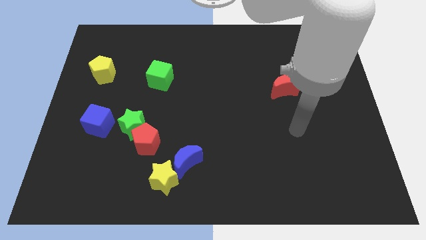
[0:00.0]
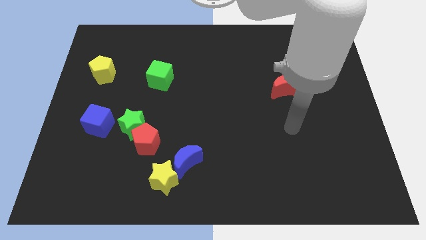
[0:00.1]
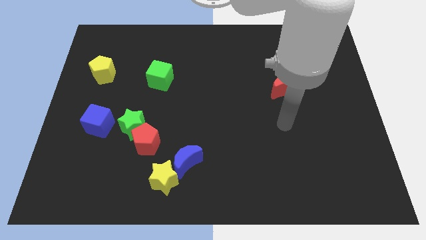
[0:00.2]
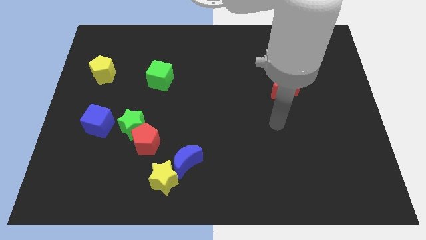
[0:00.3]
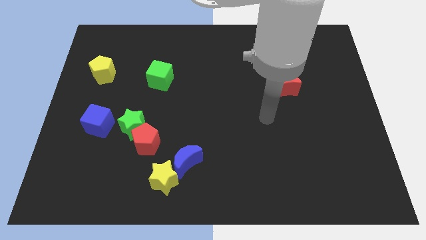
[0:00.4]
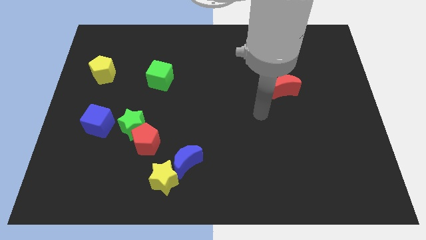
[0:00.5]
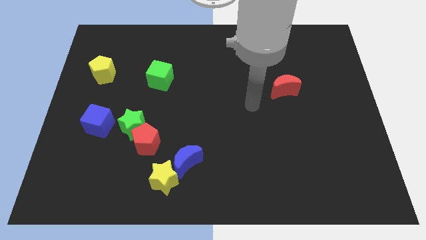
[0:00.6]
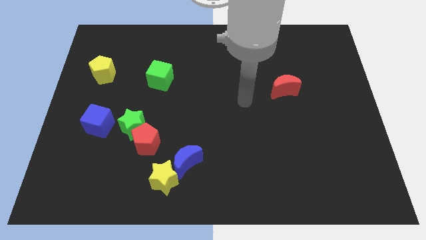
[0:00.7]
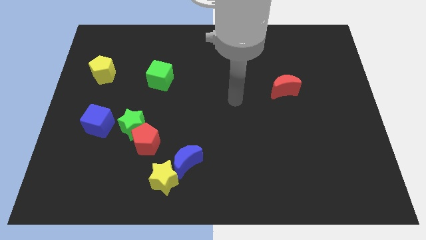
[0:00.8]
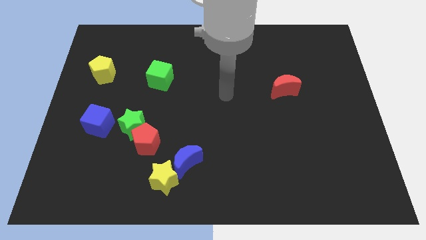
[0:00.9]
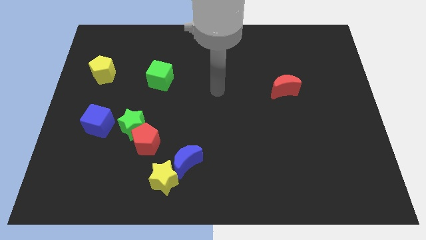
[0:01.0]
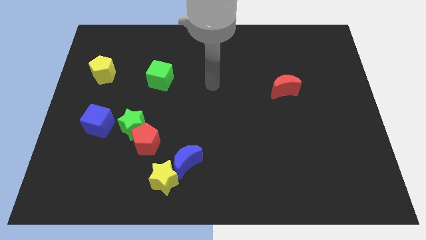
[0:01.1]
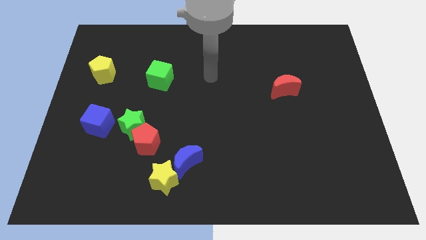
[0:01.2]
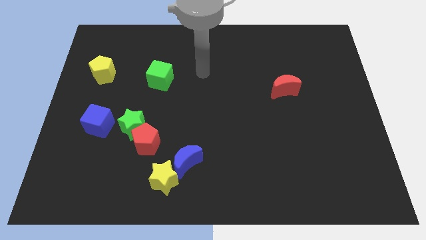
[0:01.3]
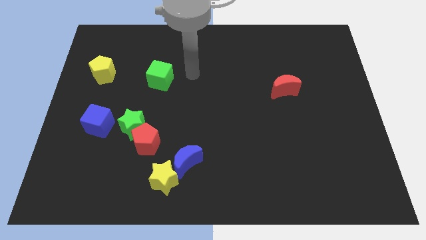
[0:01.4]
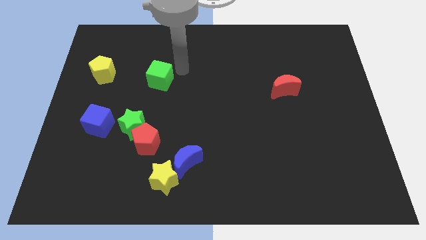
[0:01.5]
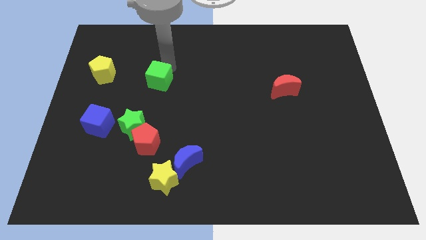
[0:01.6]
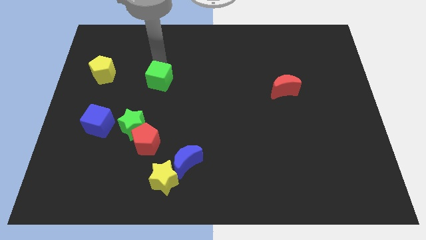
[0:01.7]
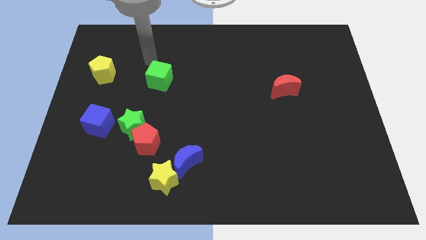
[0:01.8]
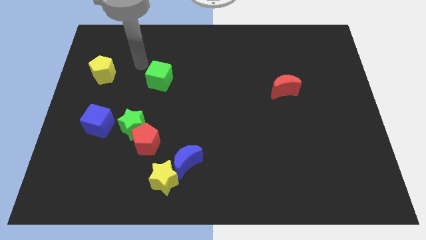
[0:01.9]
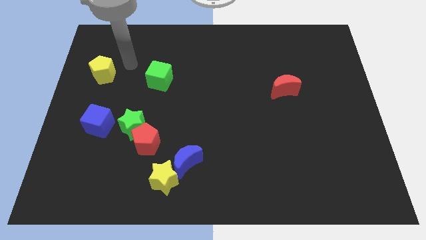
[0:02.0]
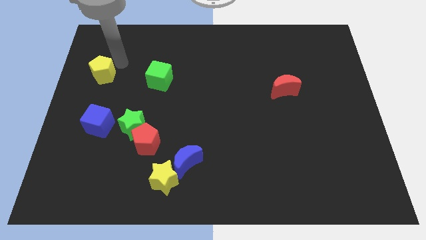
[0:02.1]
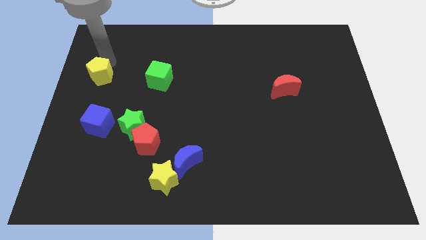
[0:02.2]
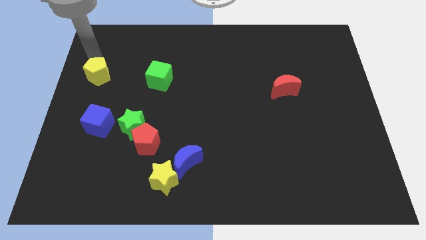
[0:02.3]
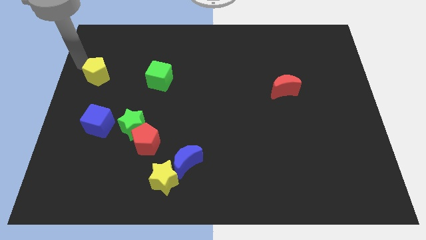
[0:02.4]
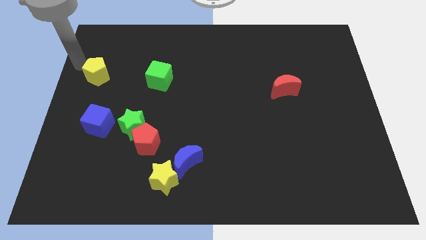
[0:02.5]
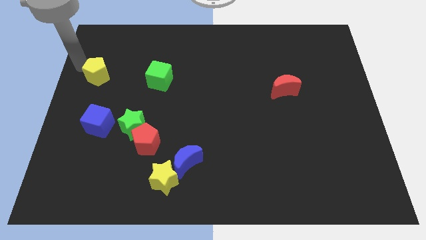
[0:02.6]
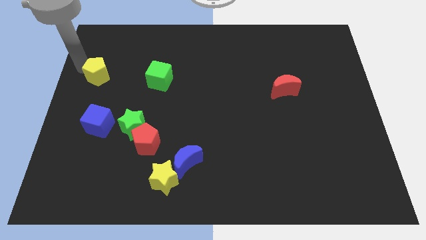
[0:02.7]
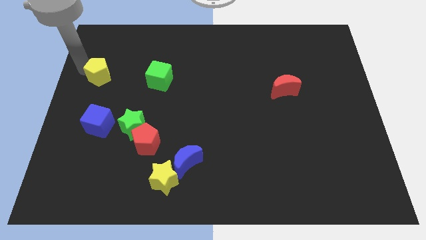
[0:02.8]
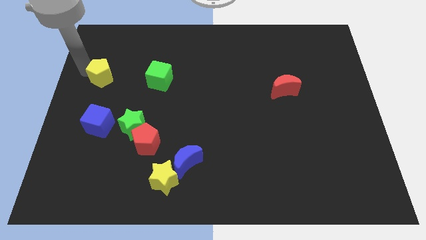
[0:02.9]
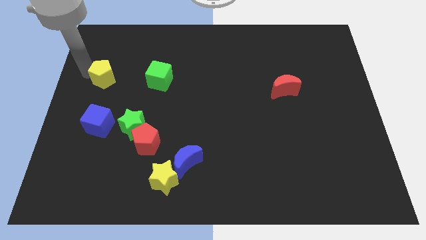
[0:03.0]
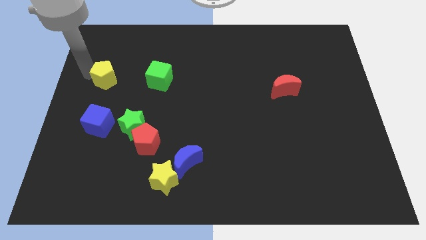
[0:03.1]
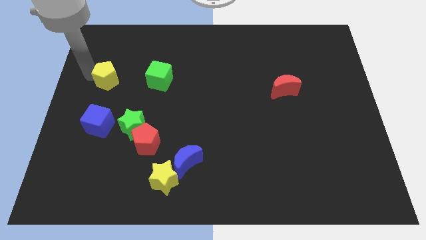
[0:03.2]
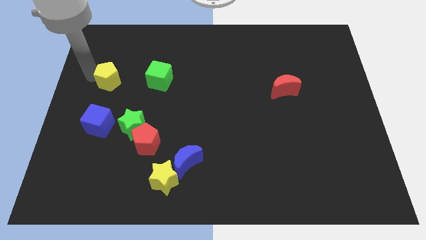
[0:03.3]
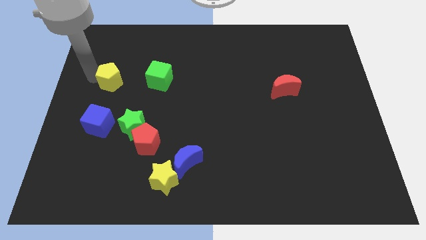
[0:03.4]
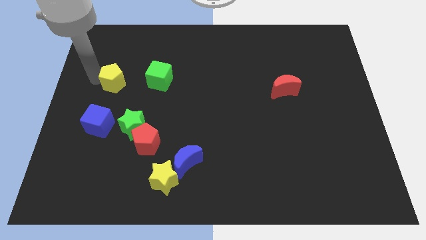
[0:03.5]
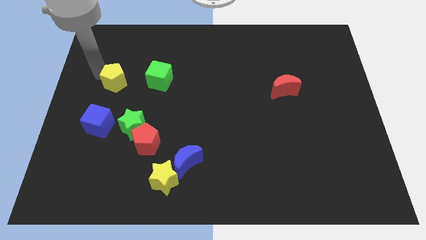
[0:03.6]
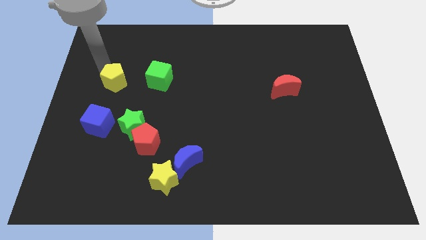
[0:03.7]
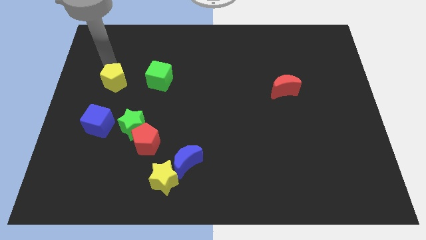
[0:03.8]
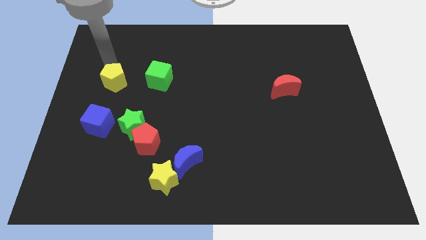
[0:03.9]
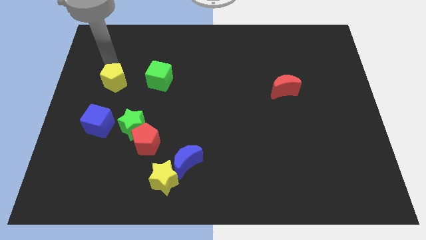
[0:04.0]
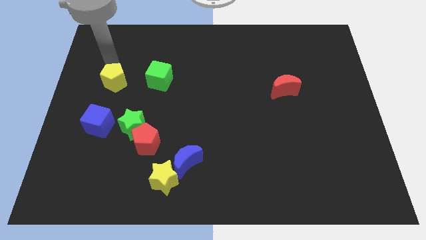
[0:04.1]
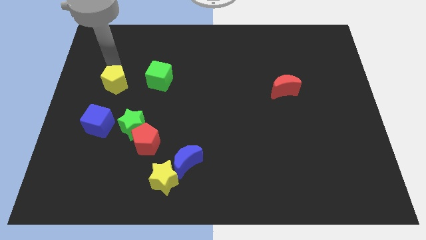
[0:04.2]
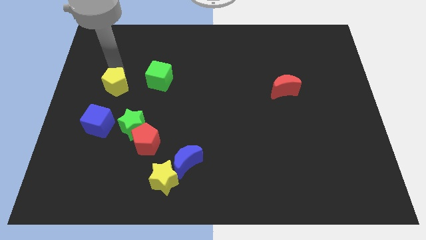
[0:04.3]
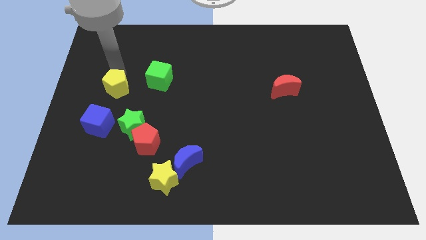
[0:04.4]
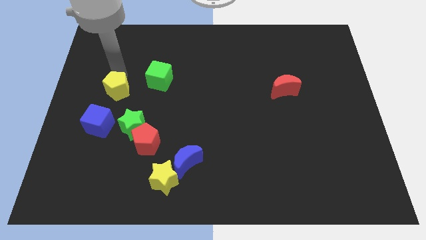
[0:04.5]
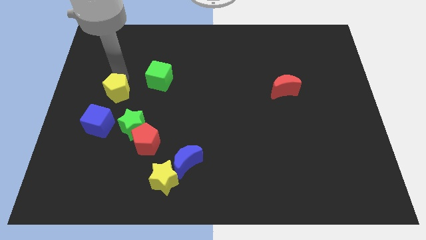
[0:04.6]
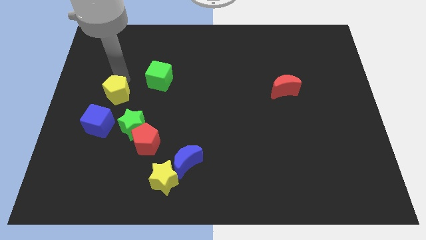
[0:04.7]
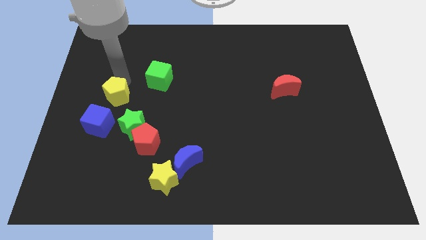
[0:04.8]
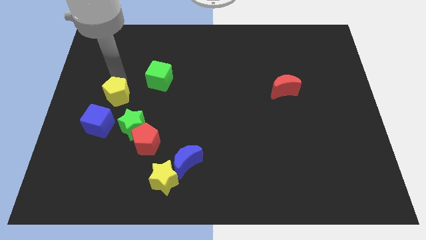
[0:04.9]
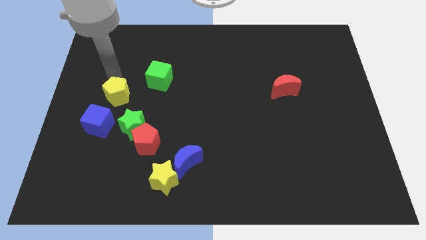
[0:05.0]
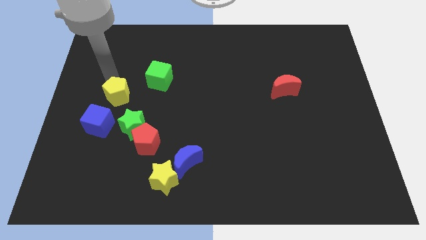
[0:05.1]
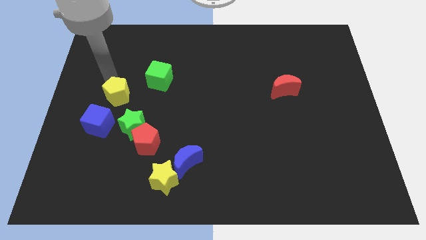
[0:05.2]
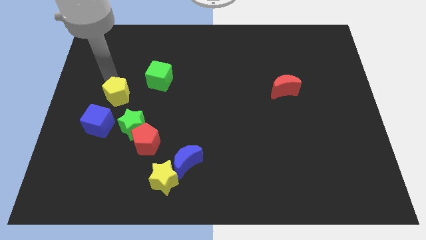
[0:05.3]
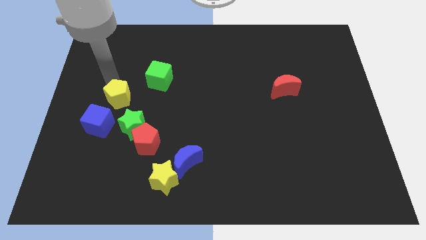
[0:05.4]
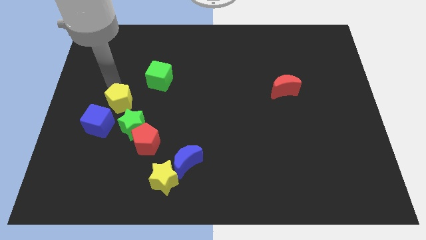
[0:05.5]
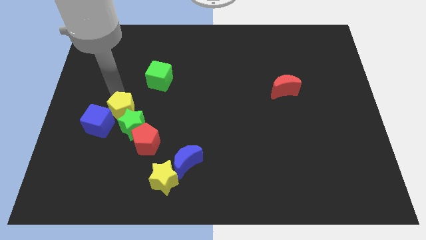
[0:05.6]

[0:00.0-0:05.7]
push the yellow pentagon towards the green star

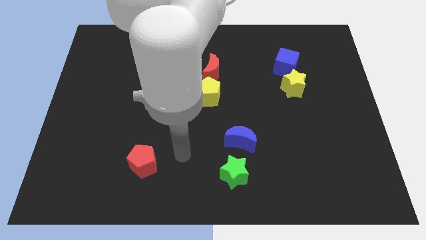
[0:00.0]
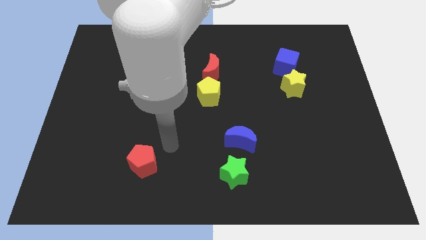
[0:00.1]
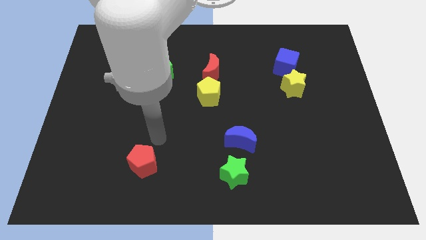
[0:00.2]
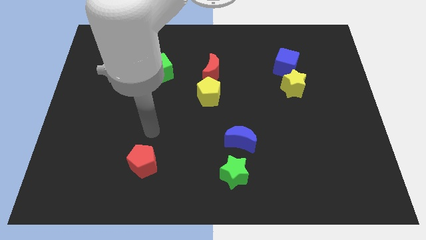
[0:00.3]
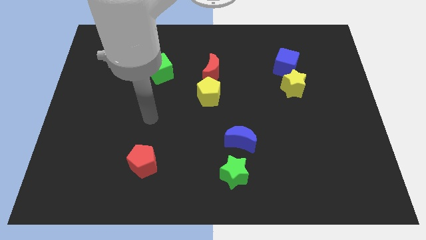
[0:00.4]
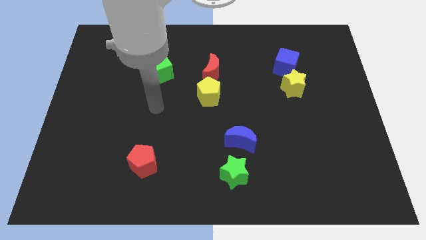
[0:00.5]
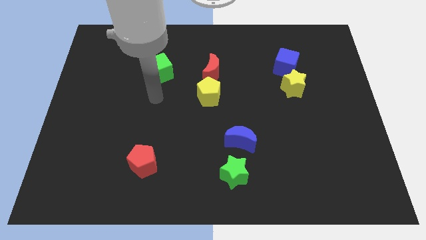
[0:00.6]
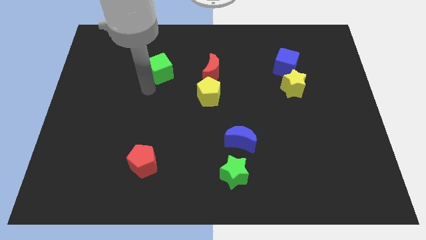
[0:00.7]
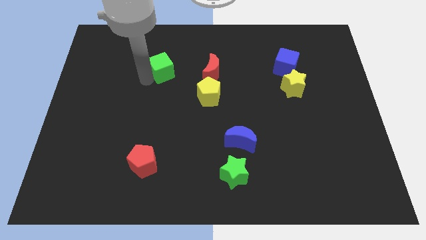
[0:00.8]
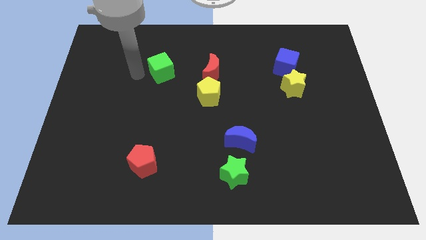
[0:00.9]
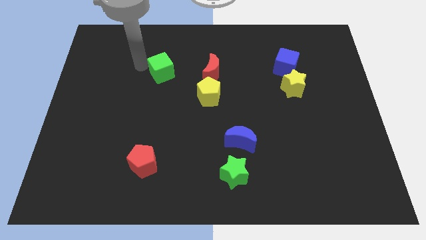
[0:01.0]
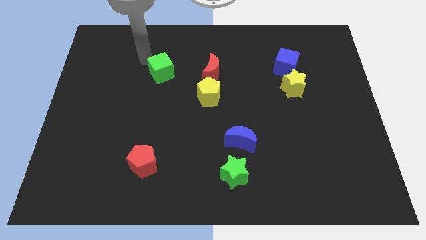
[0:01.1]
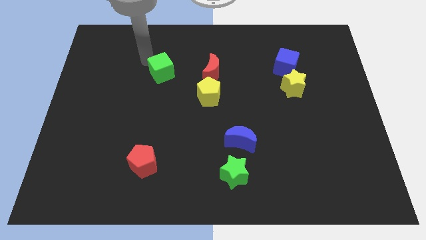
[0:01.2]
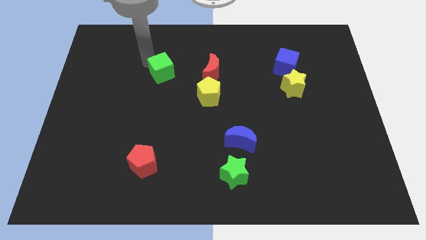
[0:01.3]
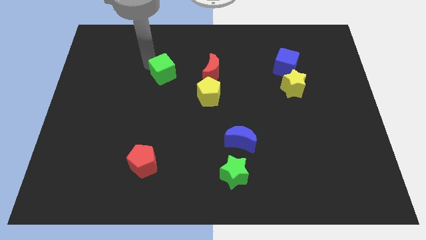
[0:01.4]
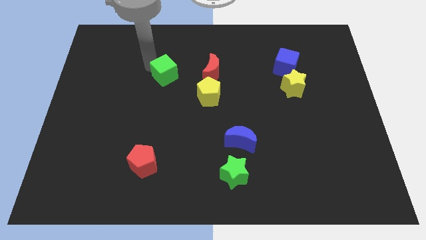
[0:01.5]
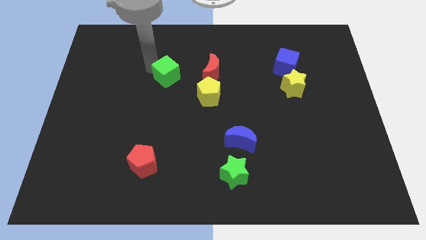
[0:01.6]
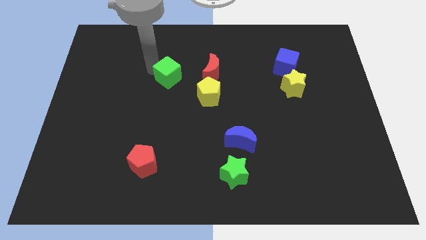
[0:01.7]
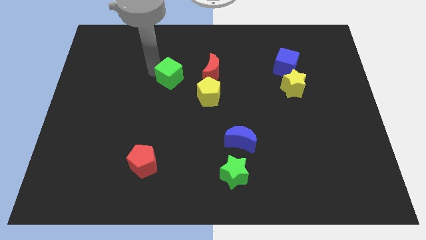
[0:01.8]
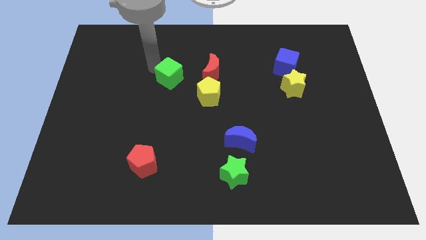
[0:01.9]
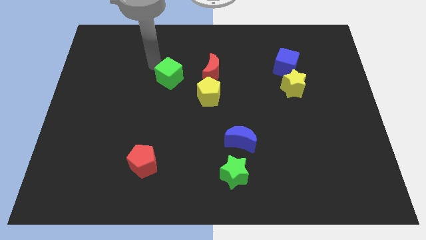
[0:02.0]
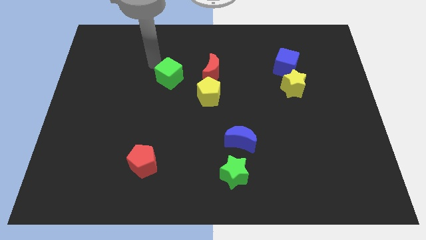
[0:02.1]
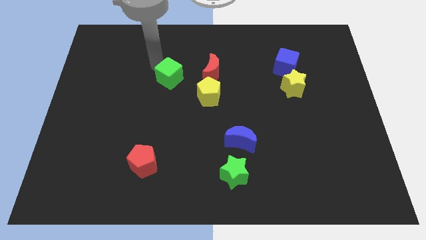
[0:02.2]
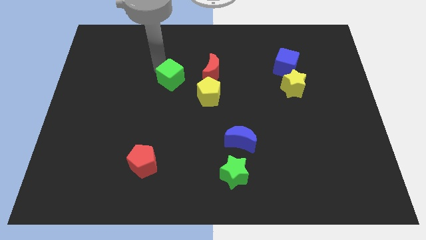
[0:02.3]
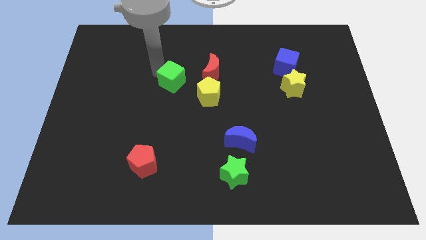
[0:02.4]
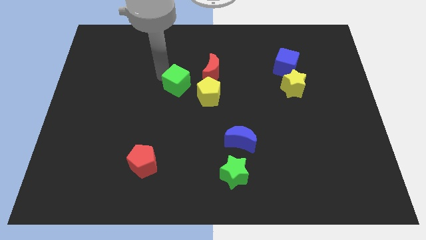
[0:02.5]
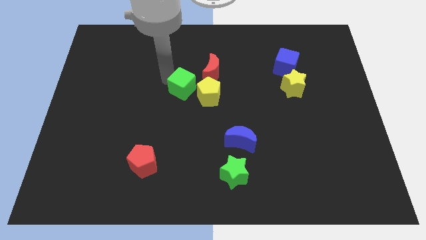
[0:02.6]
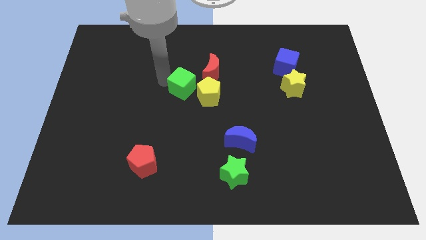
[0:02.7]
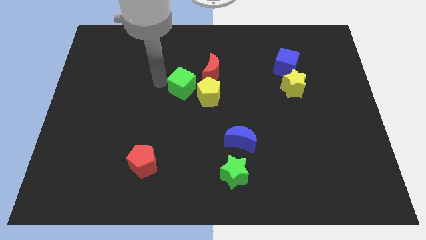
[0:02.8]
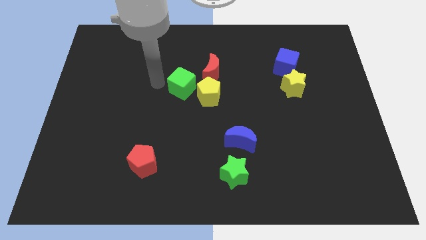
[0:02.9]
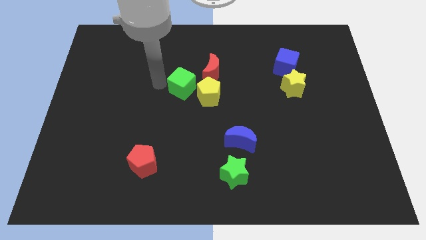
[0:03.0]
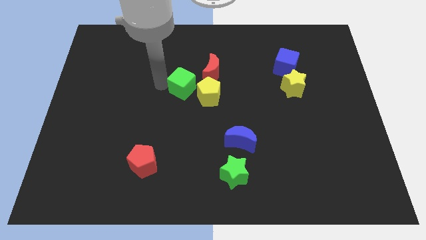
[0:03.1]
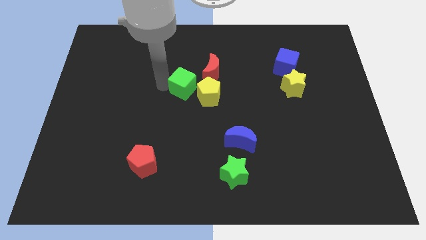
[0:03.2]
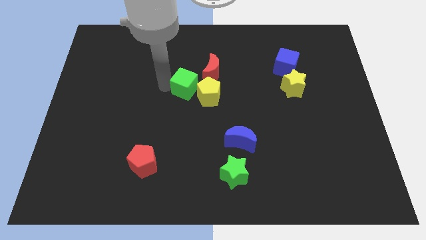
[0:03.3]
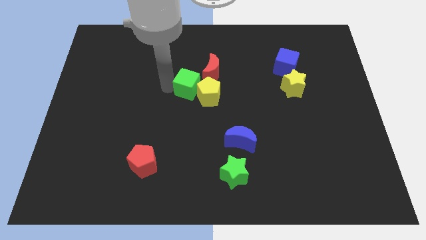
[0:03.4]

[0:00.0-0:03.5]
push the green cube towards the yellow pentagon
